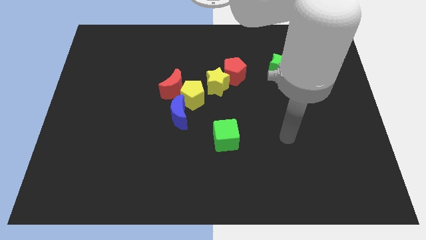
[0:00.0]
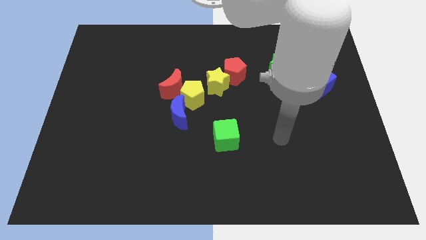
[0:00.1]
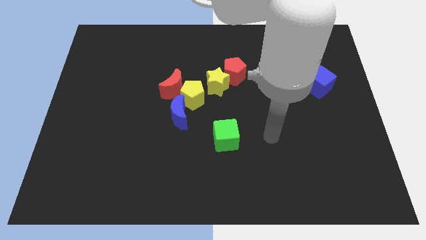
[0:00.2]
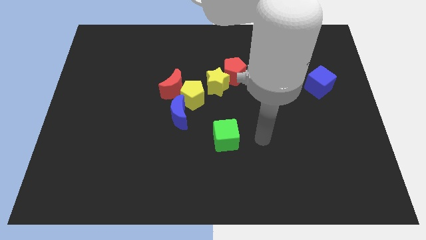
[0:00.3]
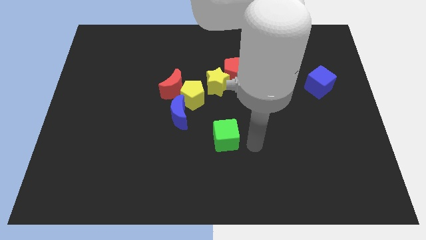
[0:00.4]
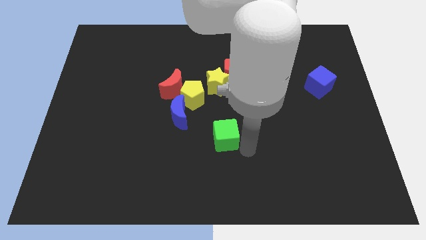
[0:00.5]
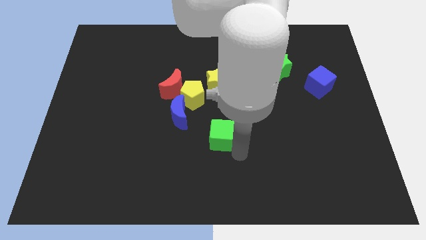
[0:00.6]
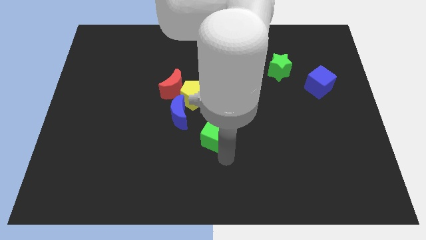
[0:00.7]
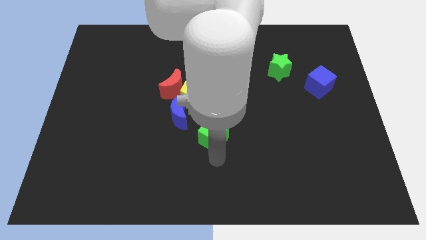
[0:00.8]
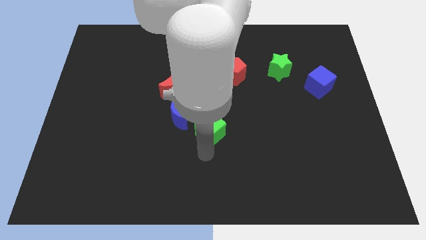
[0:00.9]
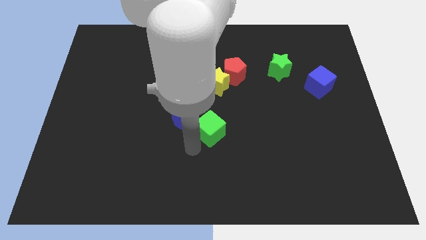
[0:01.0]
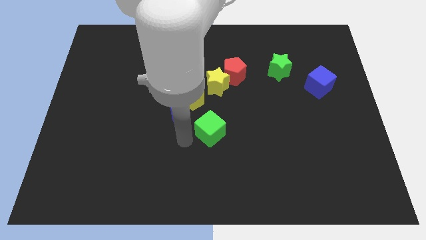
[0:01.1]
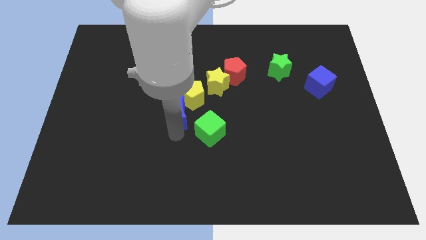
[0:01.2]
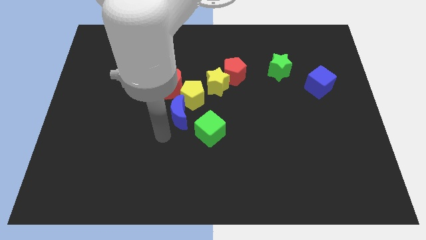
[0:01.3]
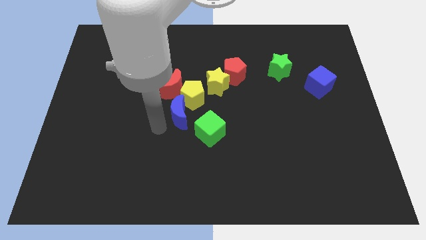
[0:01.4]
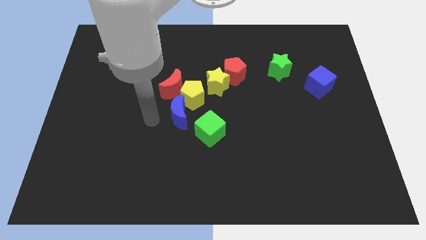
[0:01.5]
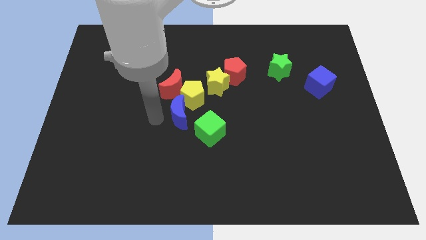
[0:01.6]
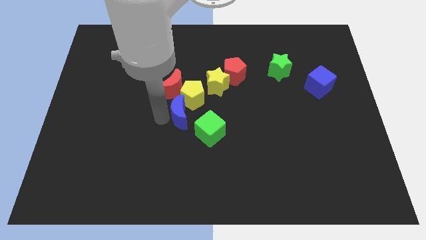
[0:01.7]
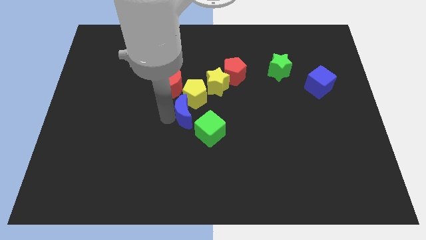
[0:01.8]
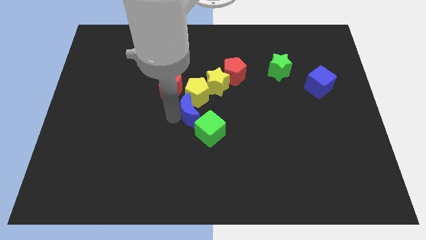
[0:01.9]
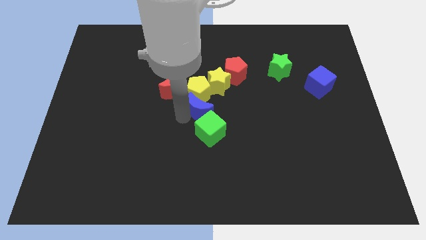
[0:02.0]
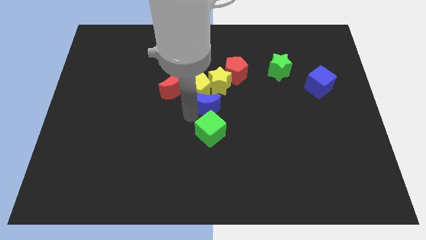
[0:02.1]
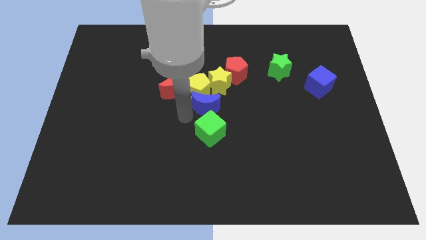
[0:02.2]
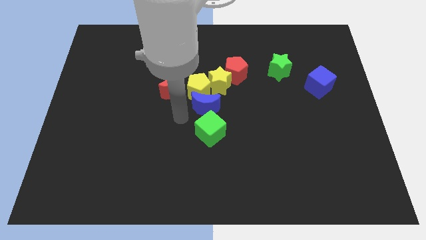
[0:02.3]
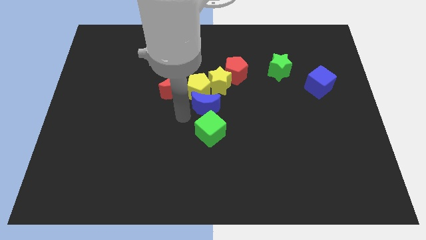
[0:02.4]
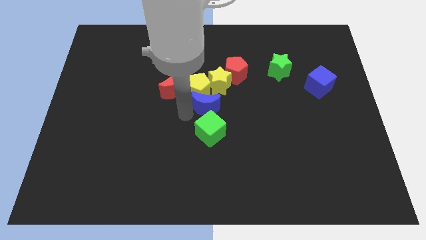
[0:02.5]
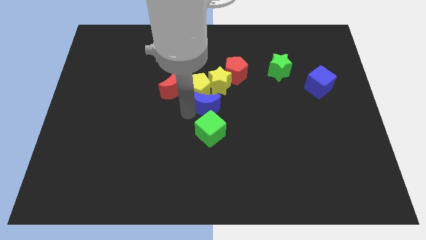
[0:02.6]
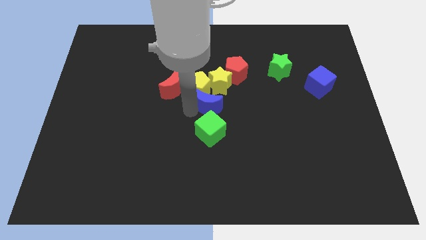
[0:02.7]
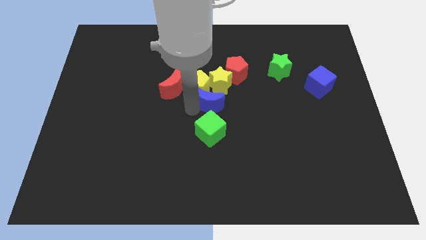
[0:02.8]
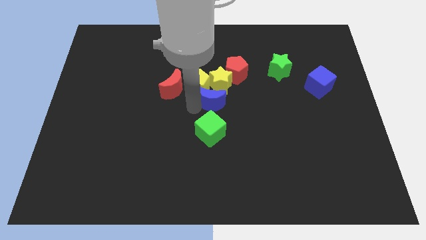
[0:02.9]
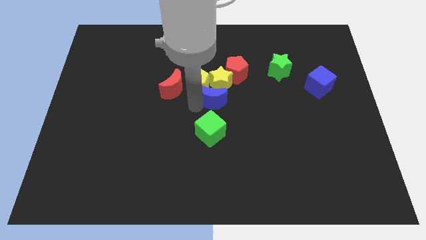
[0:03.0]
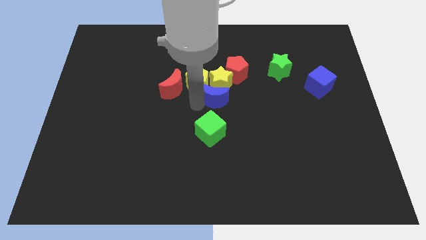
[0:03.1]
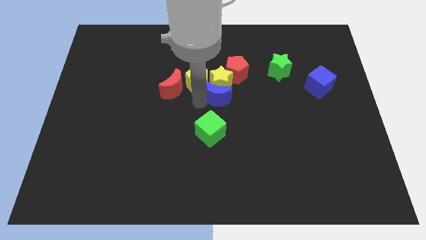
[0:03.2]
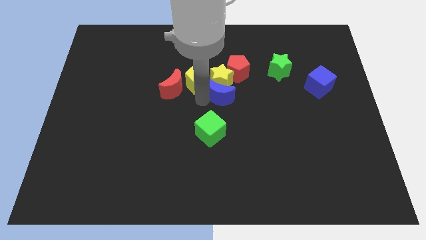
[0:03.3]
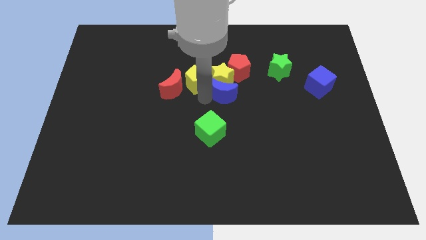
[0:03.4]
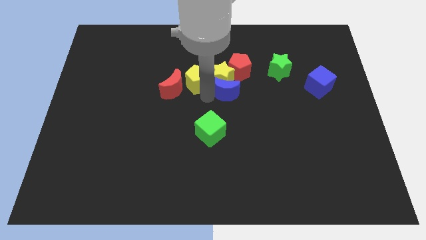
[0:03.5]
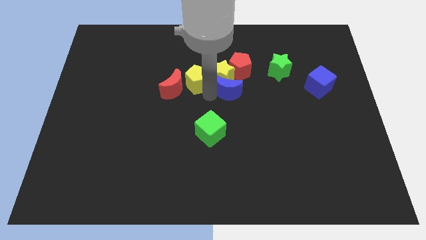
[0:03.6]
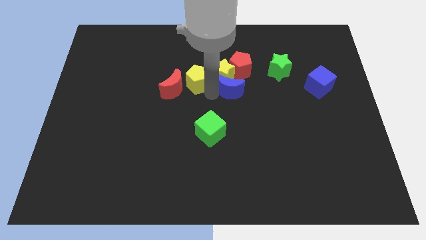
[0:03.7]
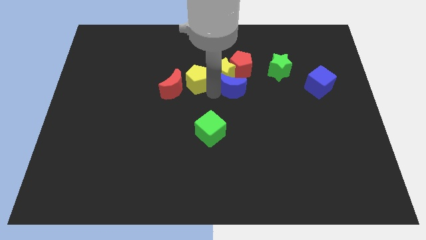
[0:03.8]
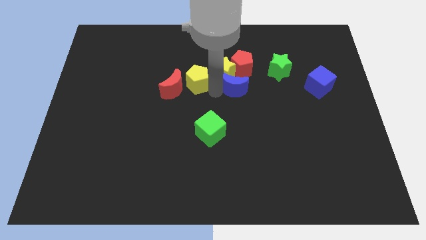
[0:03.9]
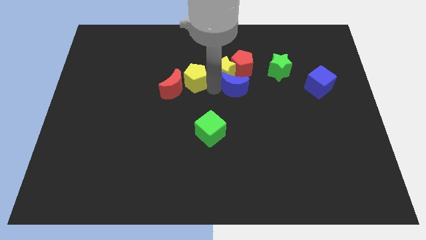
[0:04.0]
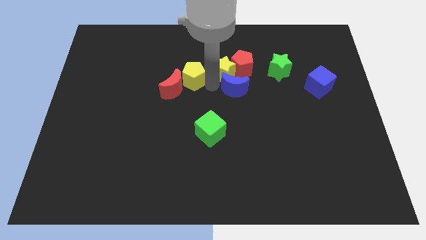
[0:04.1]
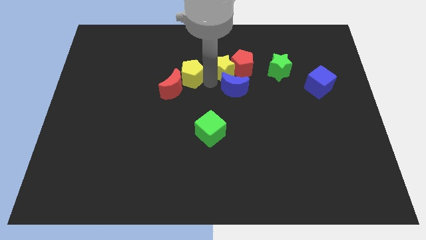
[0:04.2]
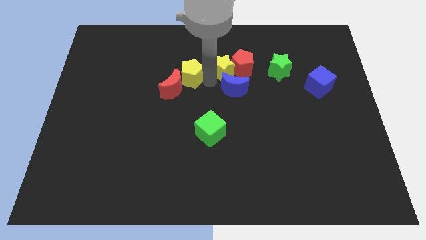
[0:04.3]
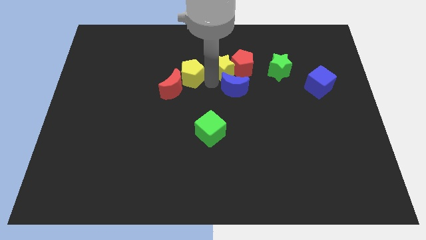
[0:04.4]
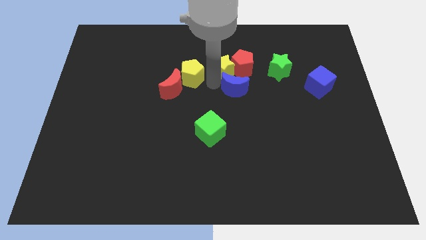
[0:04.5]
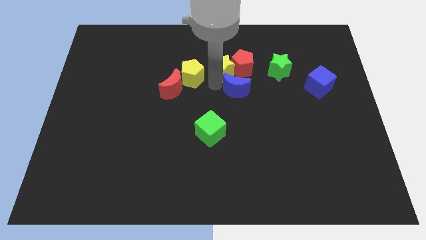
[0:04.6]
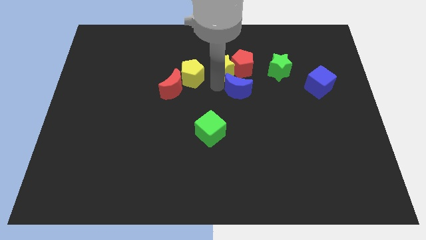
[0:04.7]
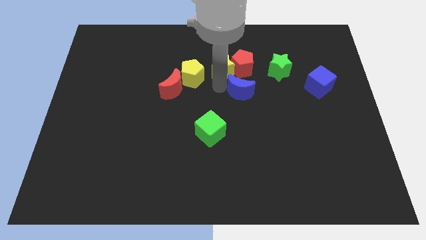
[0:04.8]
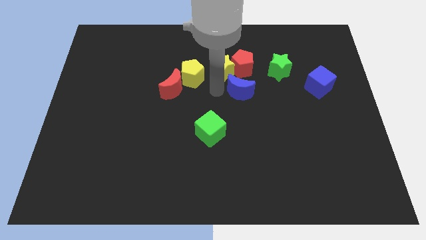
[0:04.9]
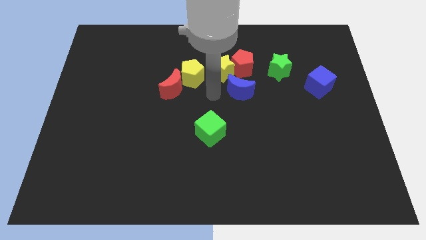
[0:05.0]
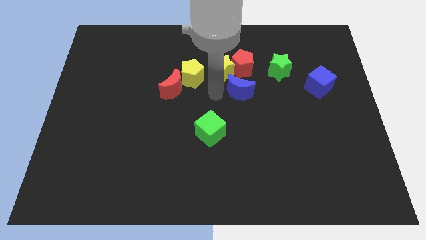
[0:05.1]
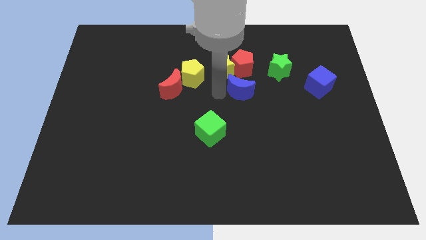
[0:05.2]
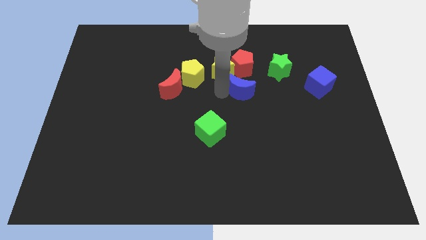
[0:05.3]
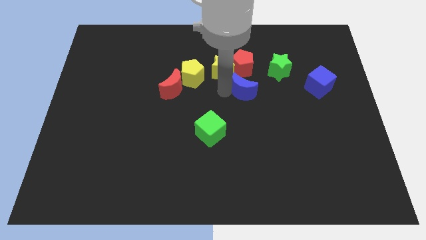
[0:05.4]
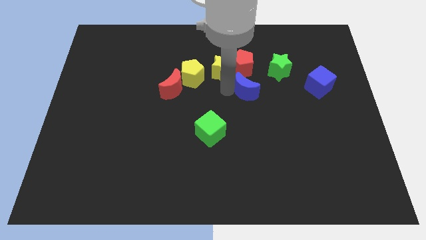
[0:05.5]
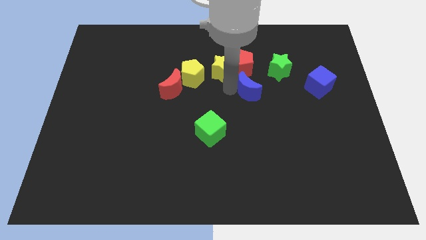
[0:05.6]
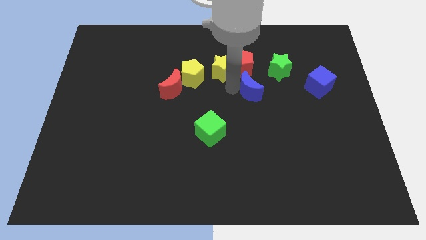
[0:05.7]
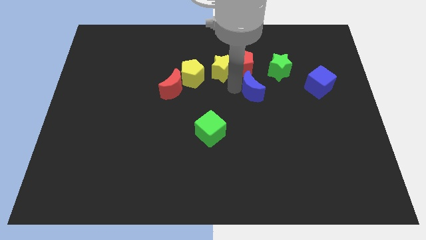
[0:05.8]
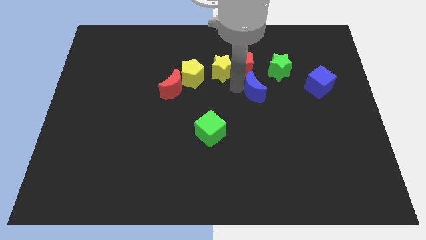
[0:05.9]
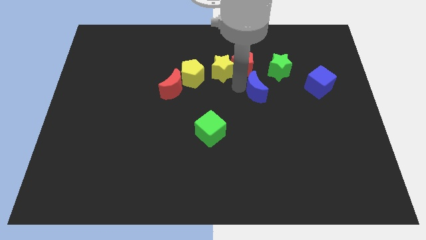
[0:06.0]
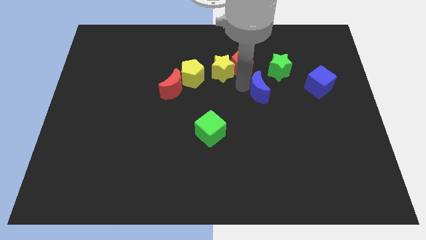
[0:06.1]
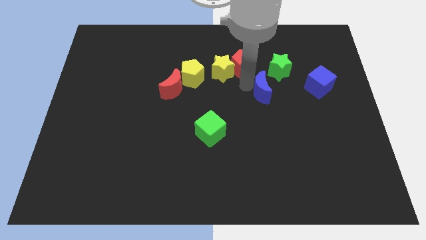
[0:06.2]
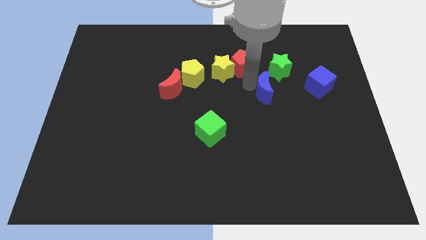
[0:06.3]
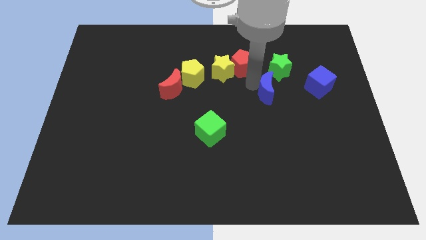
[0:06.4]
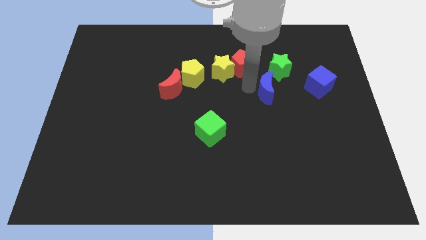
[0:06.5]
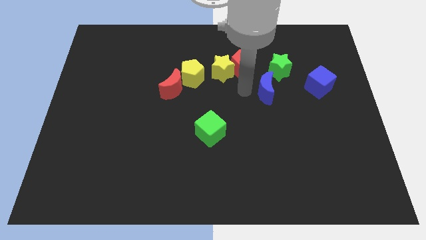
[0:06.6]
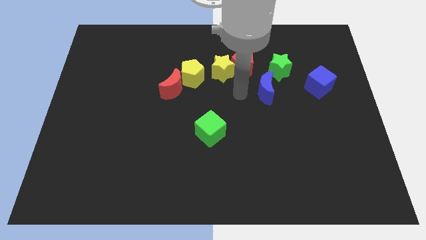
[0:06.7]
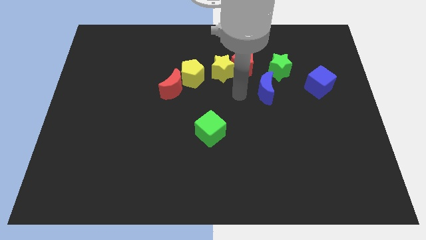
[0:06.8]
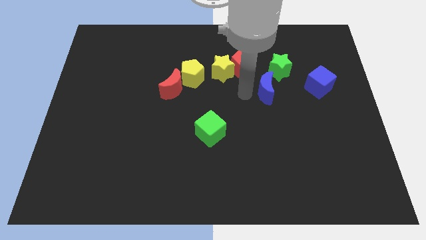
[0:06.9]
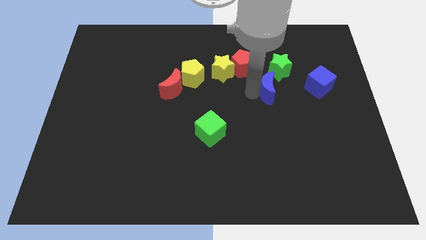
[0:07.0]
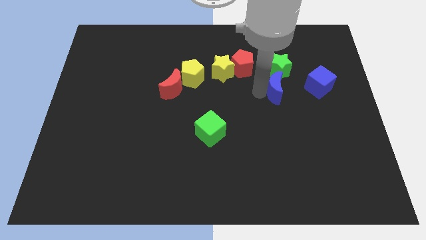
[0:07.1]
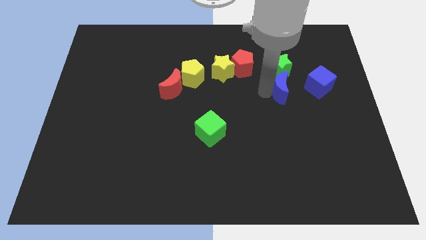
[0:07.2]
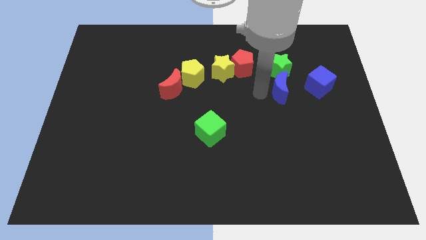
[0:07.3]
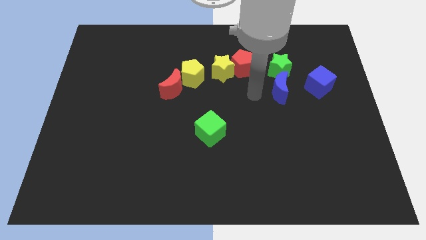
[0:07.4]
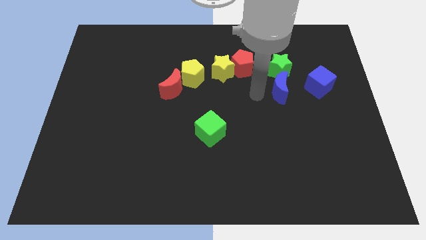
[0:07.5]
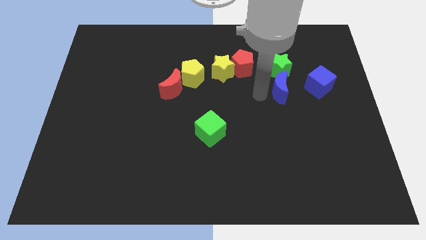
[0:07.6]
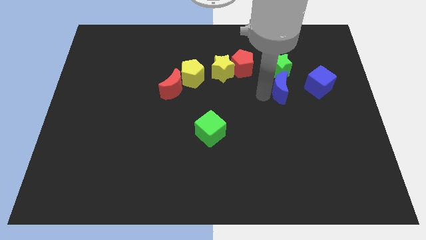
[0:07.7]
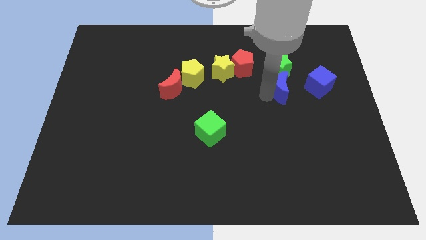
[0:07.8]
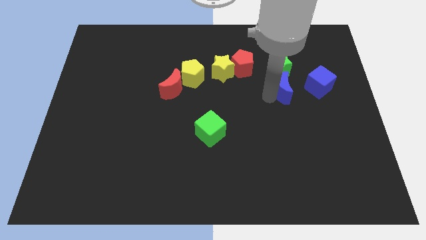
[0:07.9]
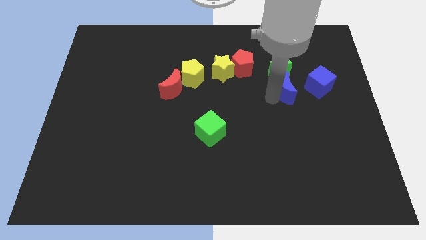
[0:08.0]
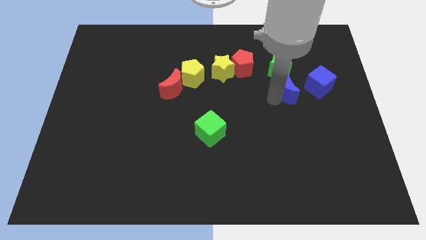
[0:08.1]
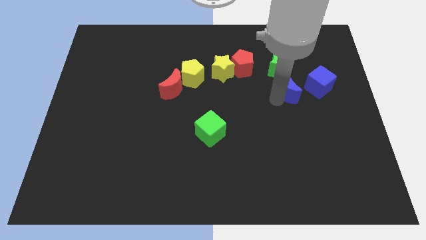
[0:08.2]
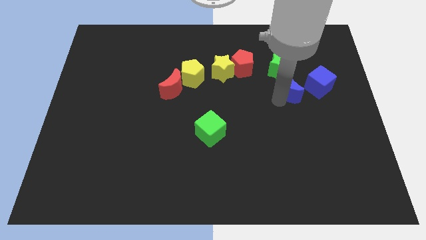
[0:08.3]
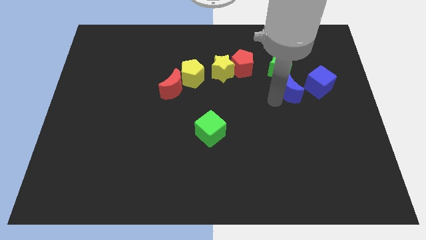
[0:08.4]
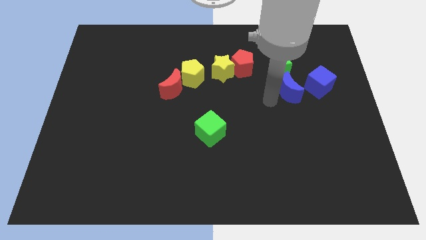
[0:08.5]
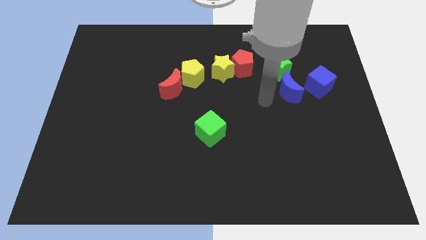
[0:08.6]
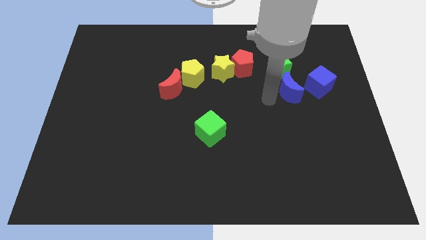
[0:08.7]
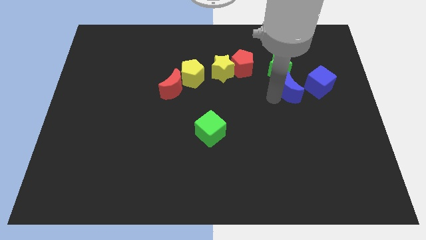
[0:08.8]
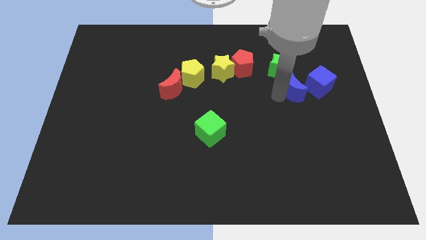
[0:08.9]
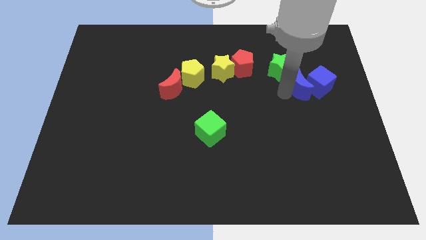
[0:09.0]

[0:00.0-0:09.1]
push the blue moon close to the blue cube
